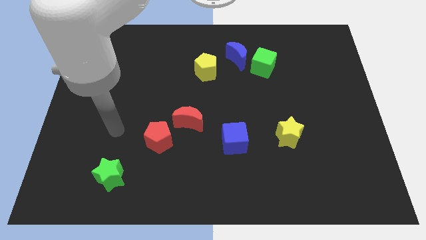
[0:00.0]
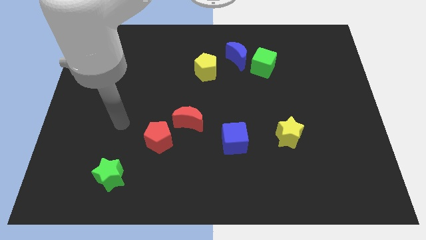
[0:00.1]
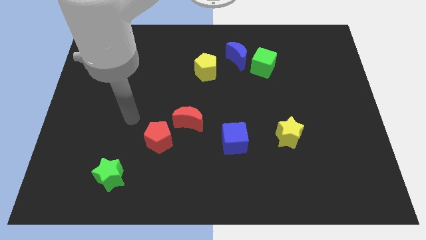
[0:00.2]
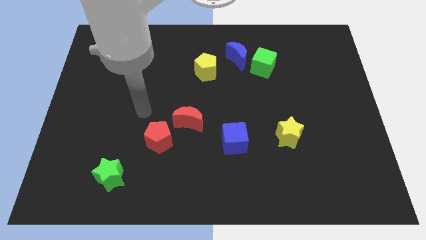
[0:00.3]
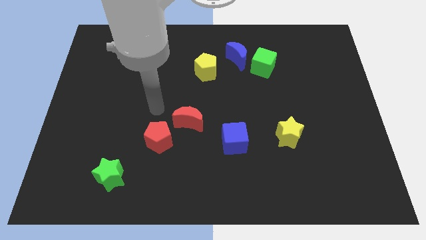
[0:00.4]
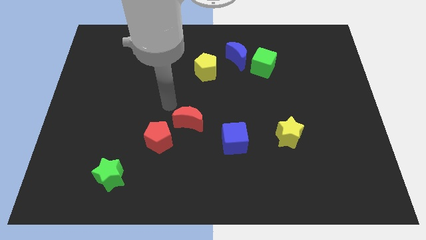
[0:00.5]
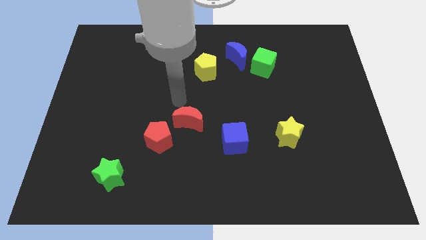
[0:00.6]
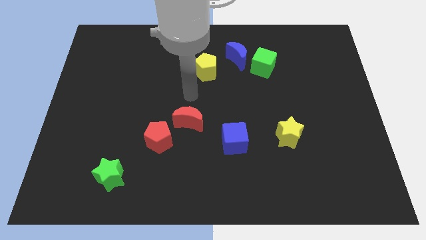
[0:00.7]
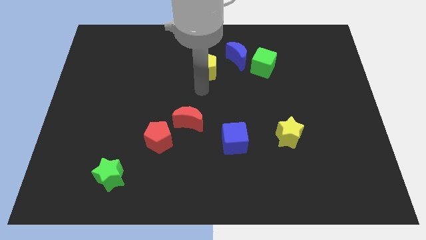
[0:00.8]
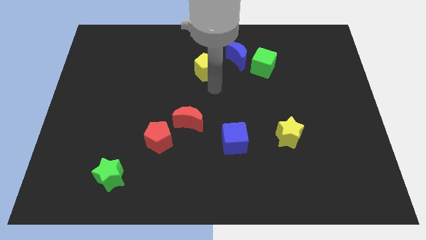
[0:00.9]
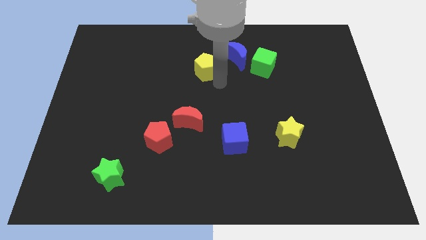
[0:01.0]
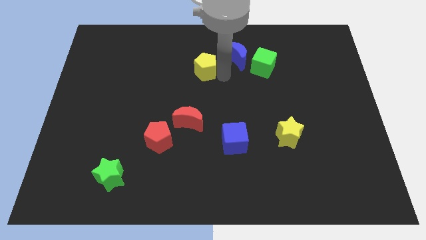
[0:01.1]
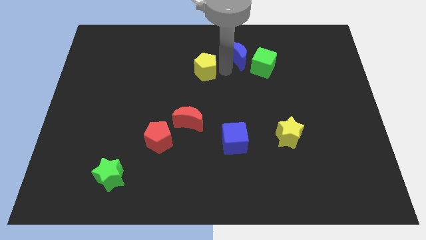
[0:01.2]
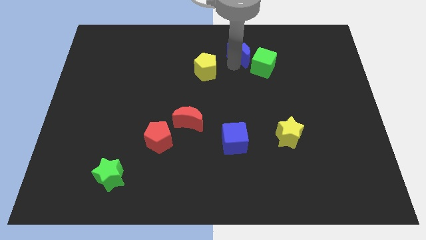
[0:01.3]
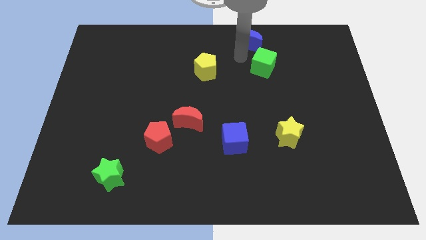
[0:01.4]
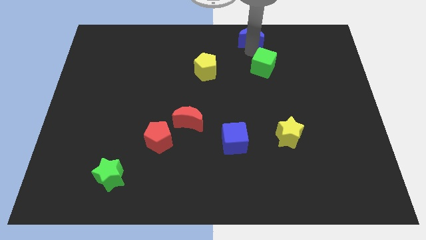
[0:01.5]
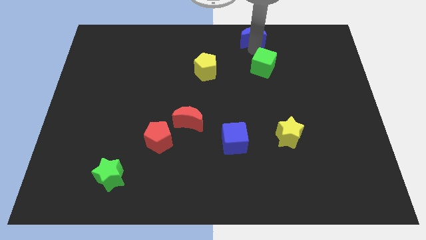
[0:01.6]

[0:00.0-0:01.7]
separate the green cube from the blue moon

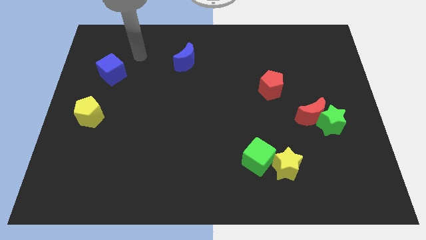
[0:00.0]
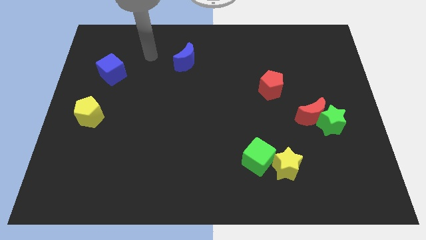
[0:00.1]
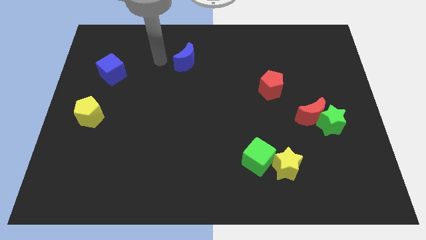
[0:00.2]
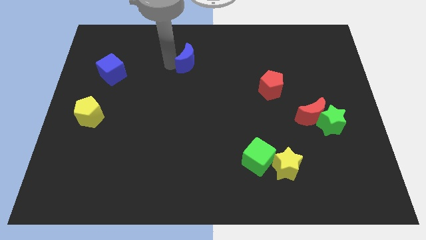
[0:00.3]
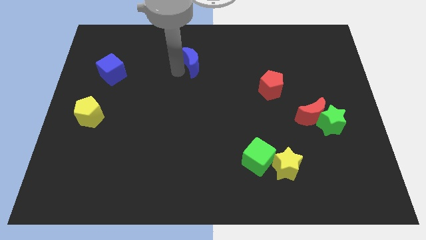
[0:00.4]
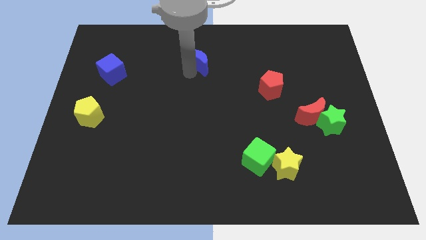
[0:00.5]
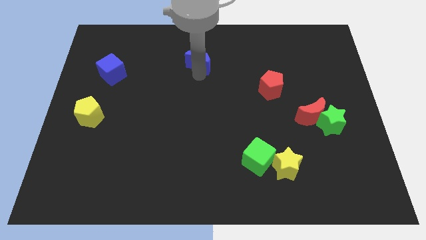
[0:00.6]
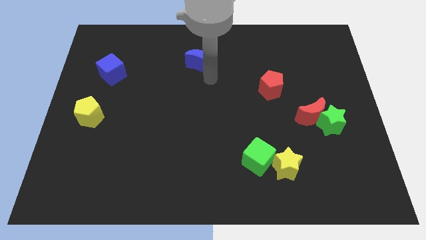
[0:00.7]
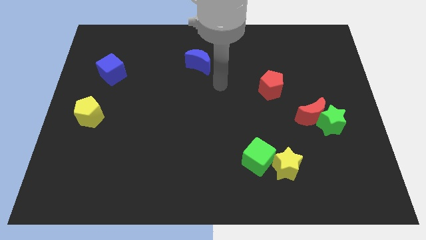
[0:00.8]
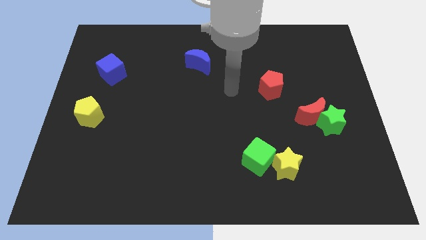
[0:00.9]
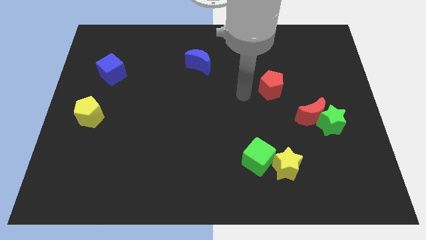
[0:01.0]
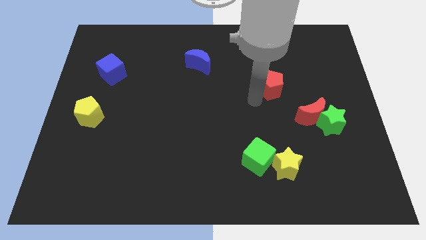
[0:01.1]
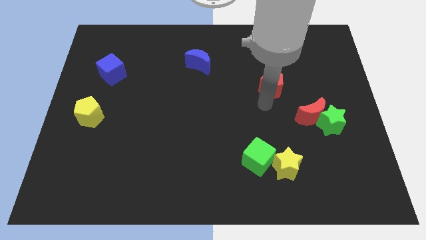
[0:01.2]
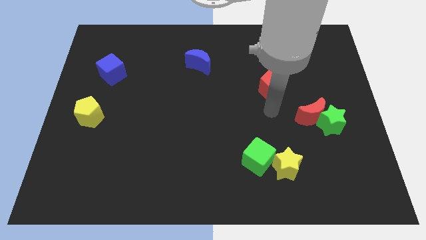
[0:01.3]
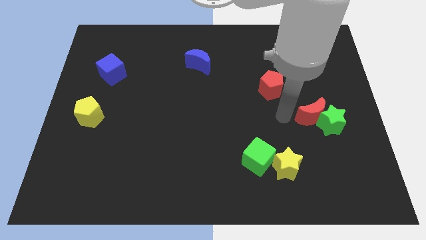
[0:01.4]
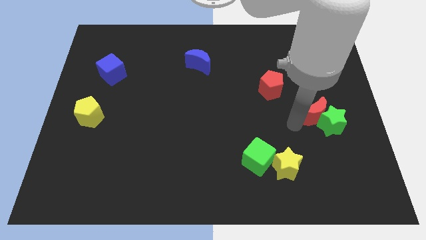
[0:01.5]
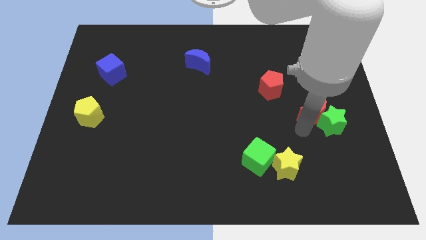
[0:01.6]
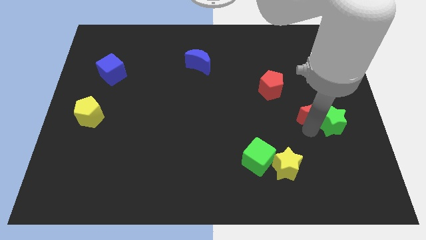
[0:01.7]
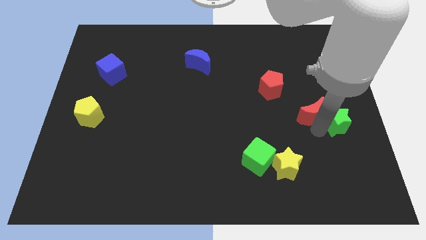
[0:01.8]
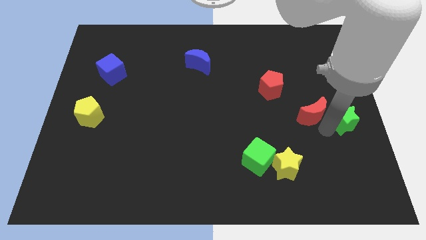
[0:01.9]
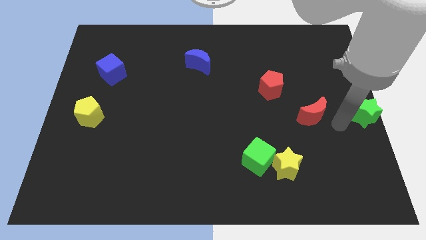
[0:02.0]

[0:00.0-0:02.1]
pull the red moon apart from the green star

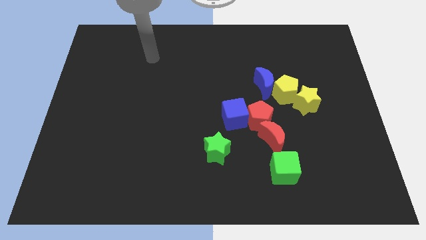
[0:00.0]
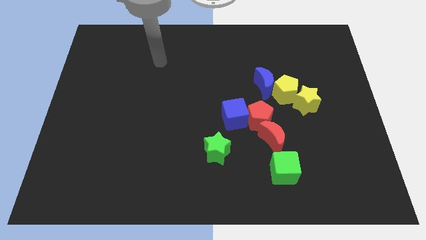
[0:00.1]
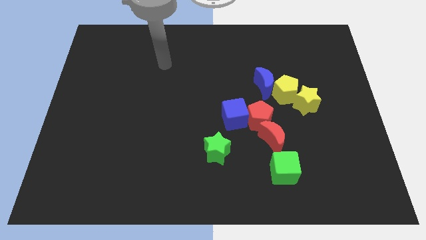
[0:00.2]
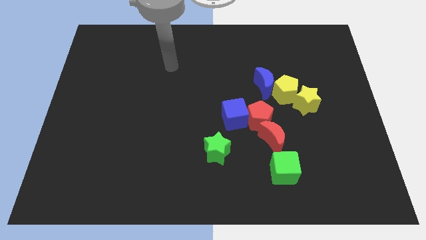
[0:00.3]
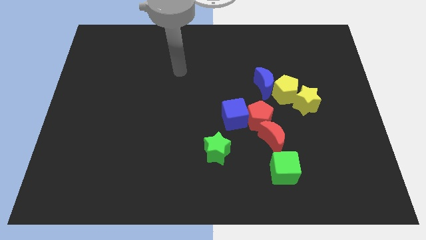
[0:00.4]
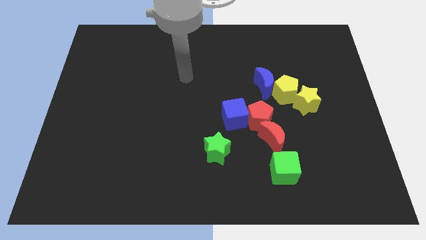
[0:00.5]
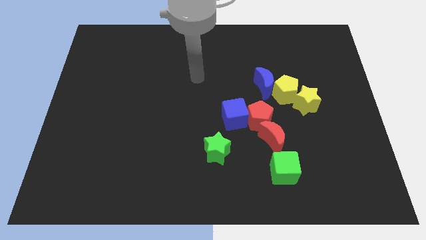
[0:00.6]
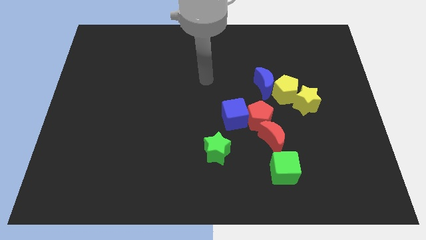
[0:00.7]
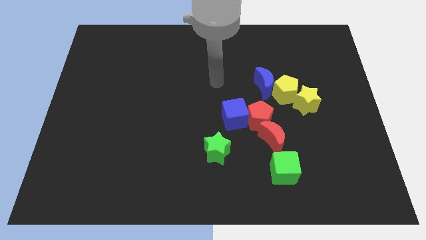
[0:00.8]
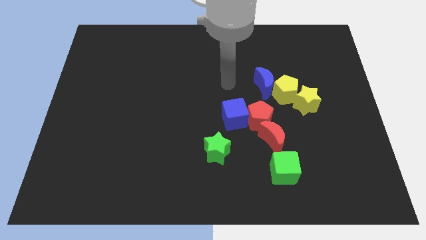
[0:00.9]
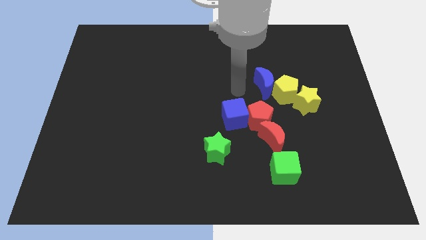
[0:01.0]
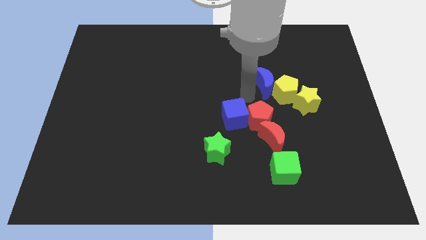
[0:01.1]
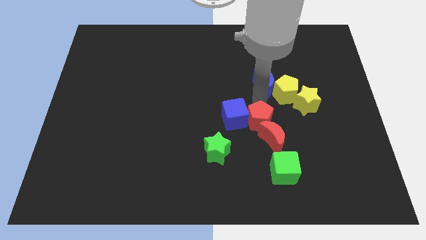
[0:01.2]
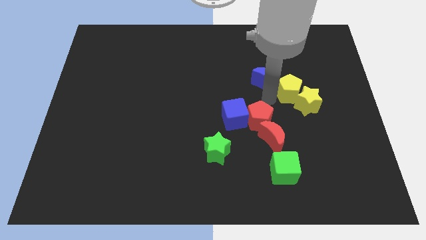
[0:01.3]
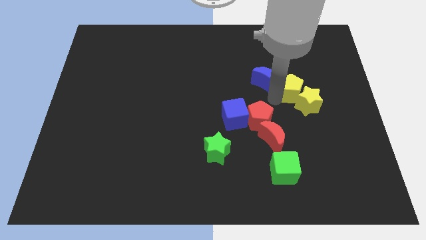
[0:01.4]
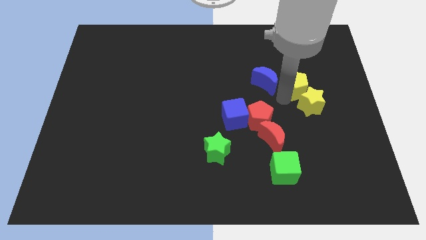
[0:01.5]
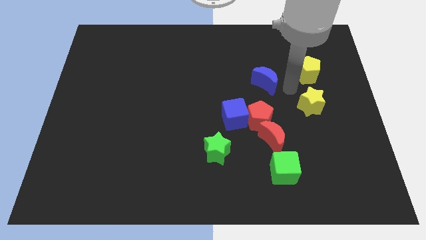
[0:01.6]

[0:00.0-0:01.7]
pull the blue moon apart from the yellow pentagon

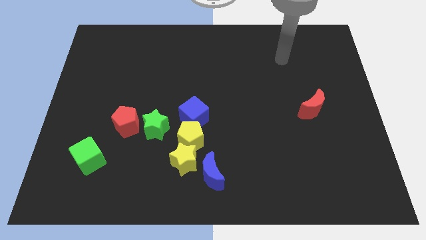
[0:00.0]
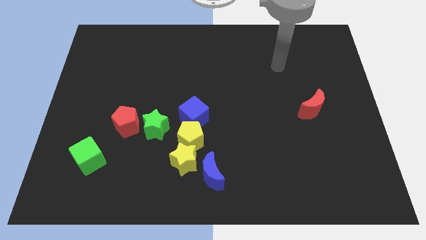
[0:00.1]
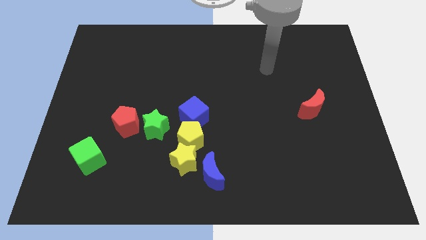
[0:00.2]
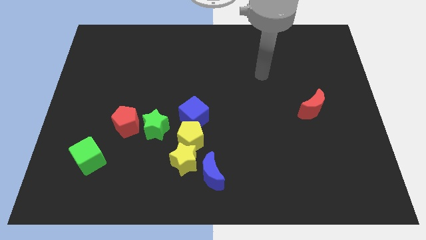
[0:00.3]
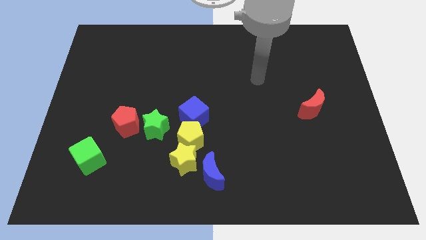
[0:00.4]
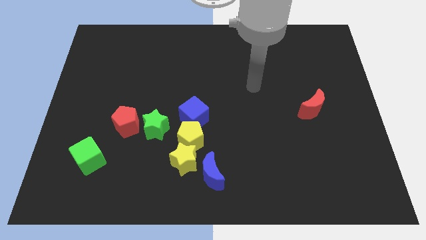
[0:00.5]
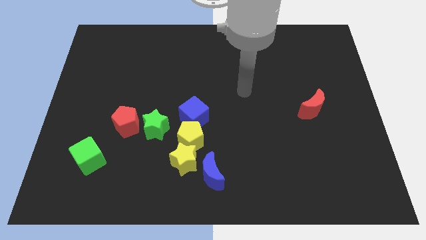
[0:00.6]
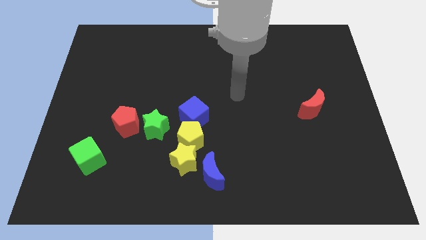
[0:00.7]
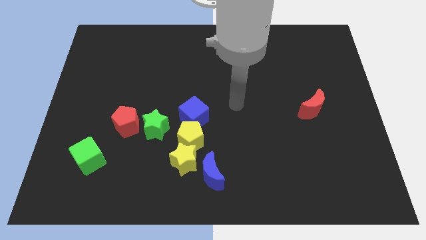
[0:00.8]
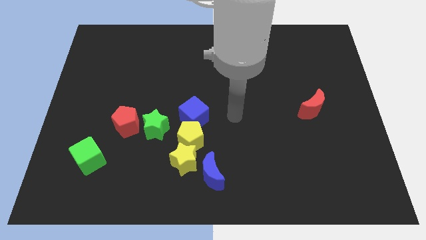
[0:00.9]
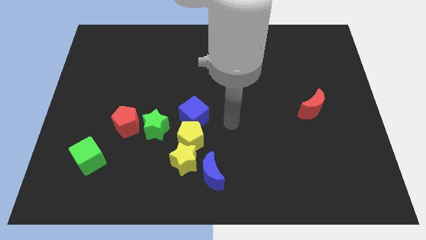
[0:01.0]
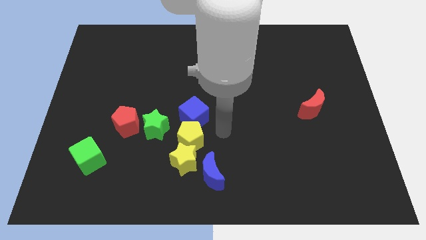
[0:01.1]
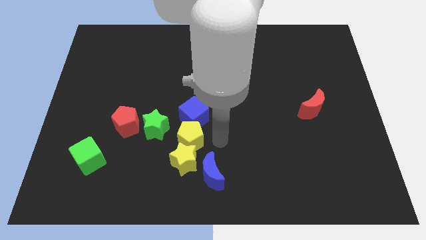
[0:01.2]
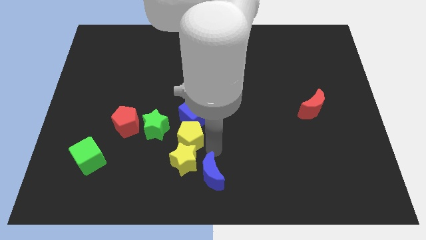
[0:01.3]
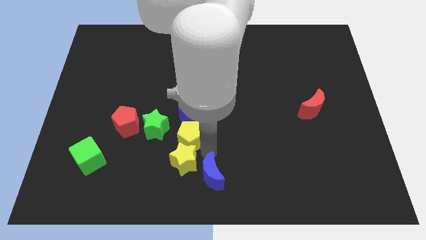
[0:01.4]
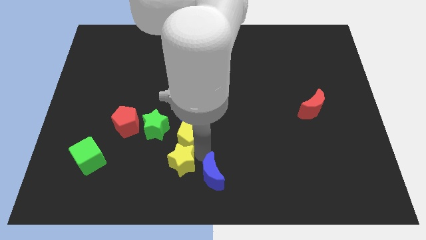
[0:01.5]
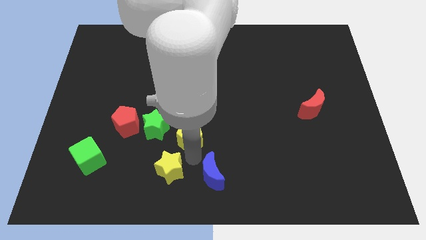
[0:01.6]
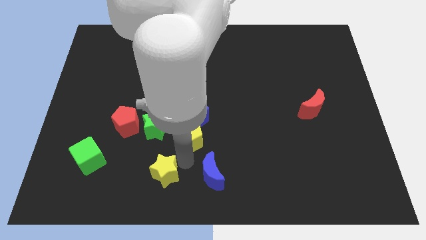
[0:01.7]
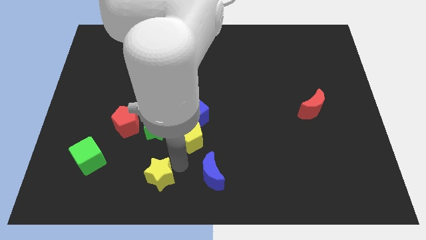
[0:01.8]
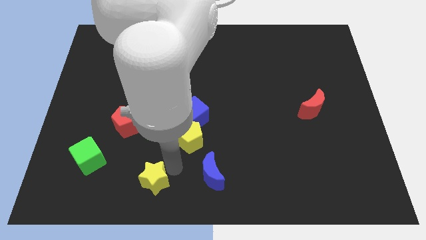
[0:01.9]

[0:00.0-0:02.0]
pull the yellow star apart from the yellow pentagon and blue moon

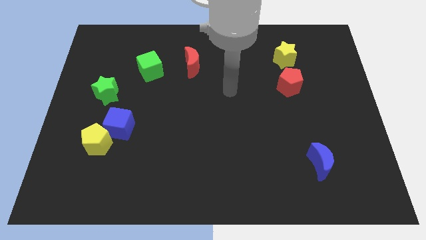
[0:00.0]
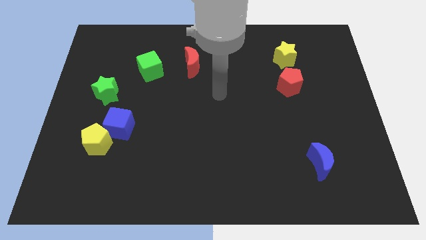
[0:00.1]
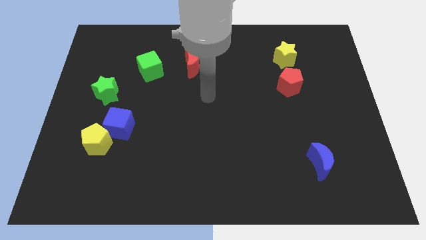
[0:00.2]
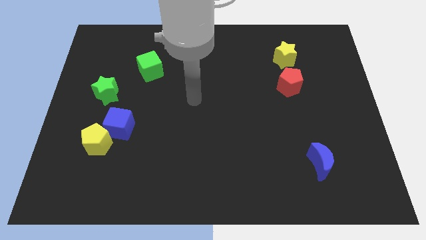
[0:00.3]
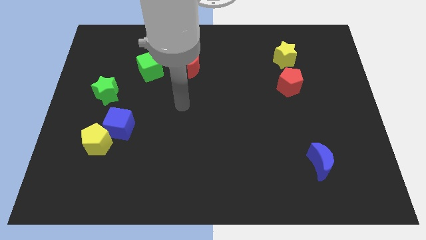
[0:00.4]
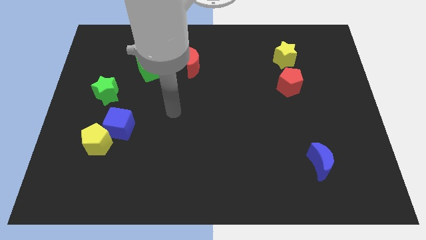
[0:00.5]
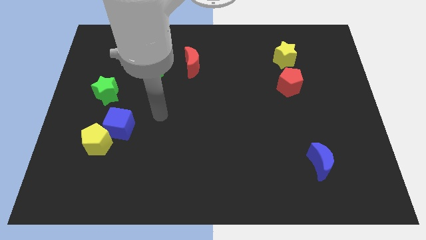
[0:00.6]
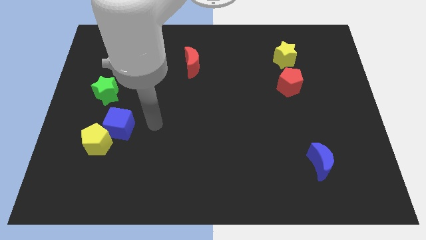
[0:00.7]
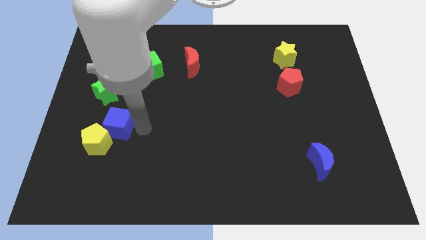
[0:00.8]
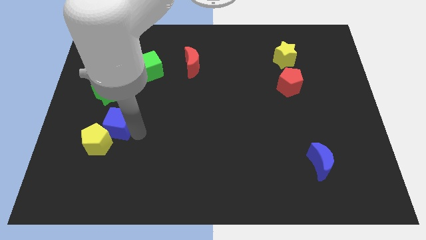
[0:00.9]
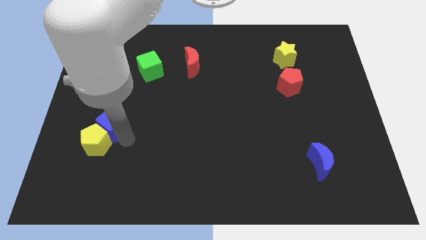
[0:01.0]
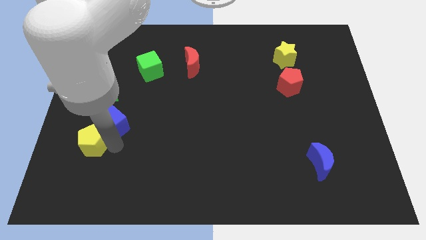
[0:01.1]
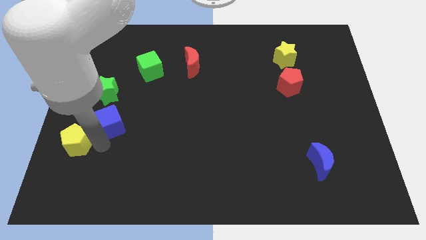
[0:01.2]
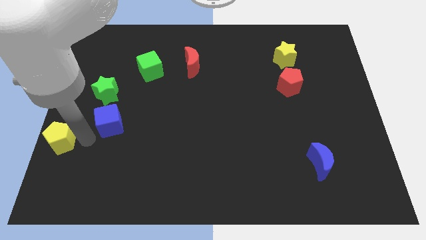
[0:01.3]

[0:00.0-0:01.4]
move the blue cube away from the yellow pentagon

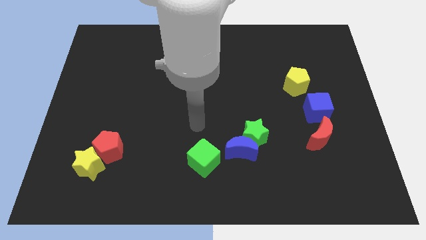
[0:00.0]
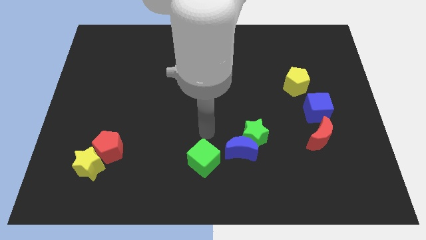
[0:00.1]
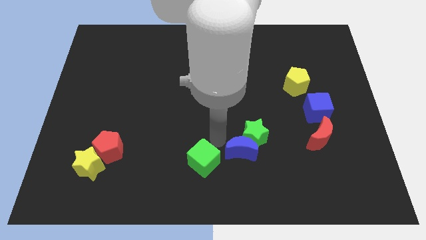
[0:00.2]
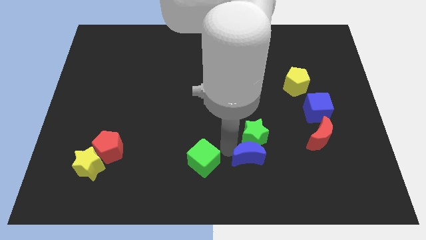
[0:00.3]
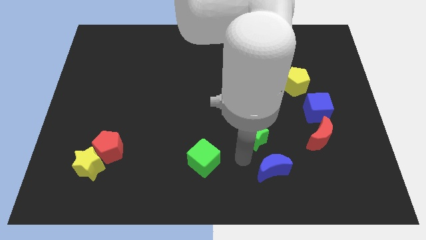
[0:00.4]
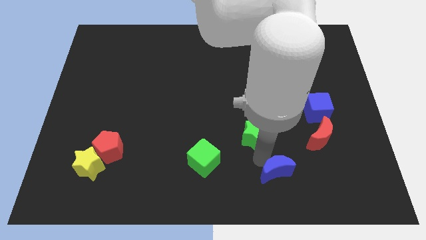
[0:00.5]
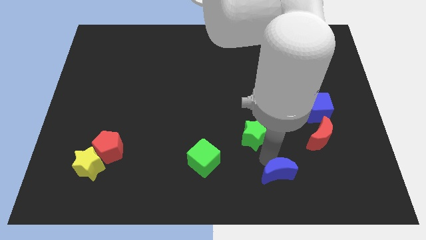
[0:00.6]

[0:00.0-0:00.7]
separate the green star from the blue moon
